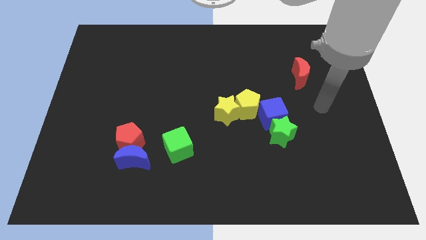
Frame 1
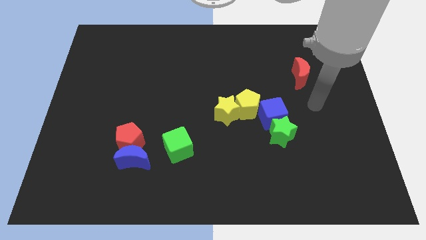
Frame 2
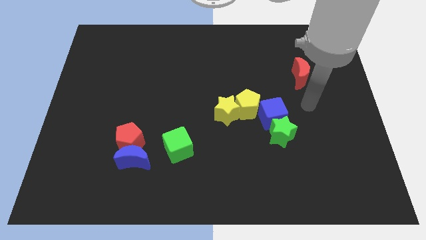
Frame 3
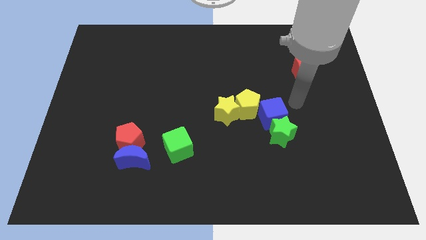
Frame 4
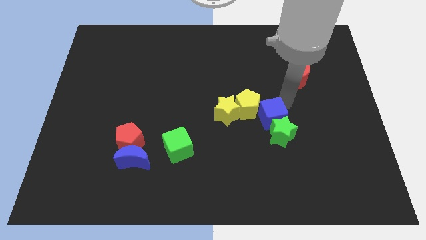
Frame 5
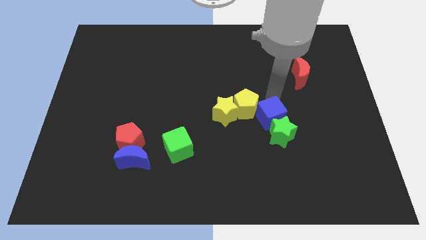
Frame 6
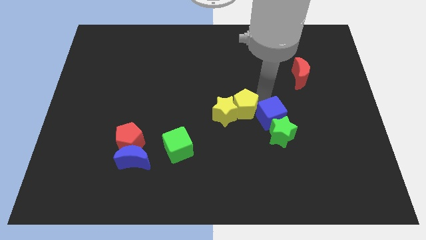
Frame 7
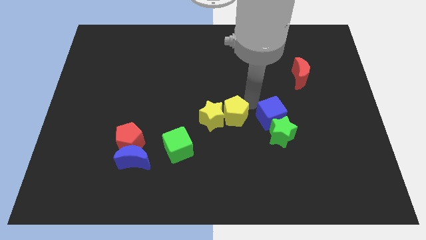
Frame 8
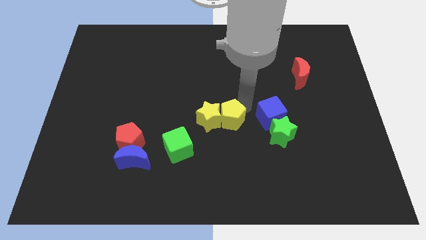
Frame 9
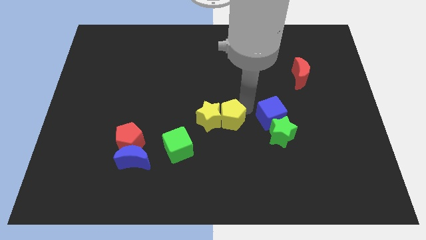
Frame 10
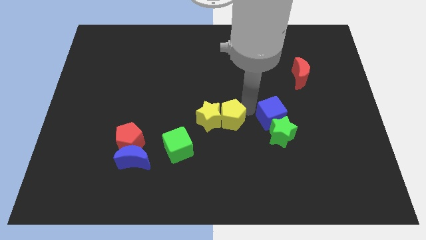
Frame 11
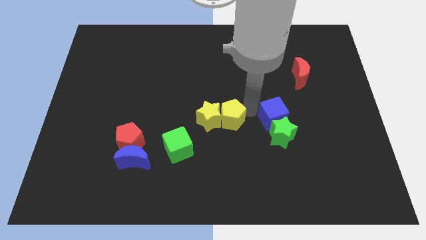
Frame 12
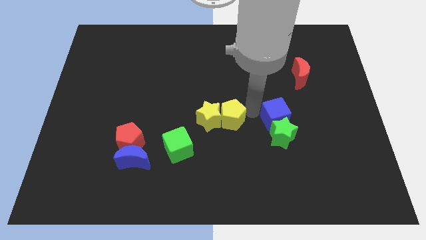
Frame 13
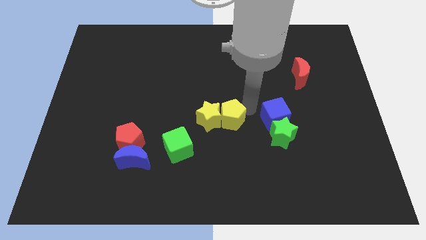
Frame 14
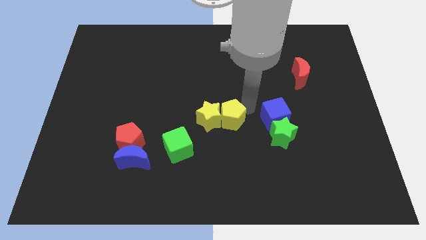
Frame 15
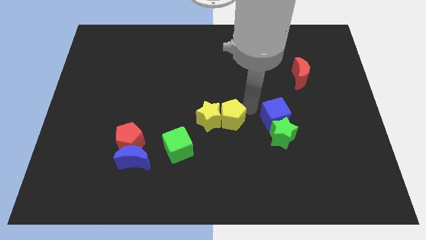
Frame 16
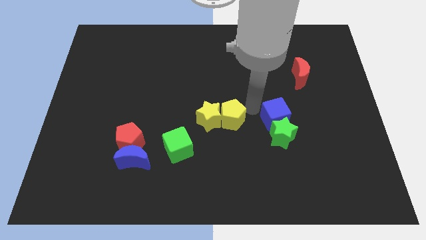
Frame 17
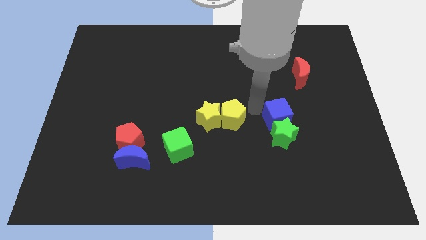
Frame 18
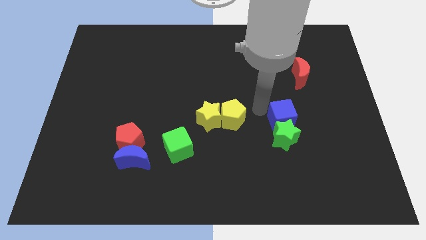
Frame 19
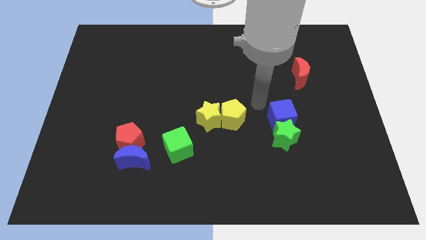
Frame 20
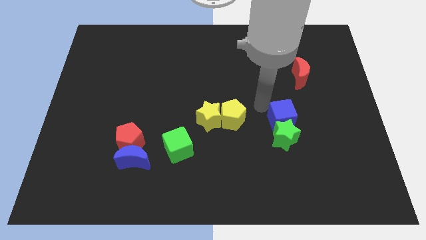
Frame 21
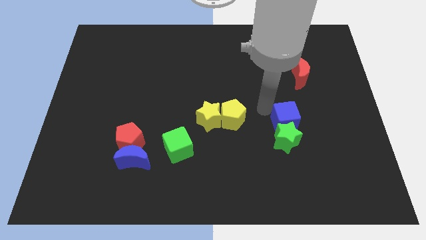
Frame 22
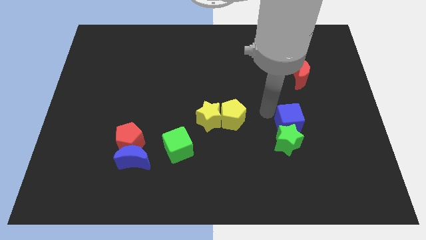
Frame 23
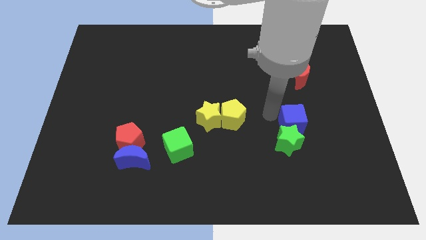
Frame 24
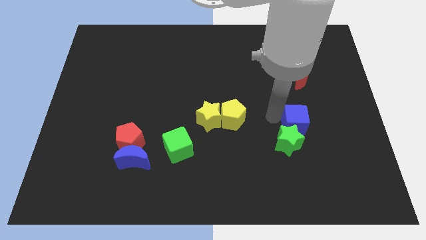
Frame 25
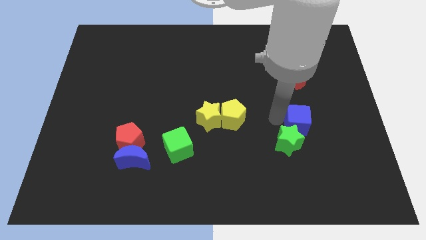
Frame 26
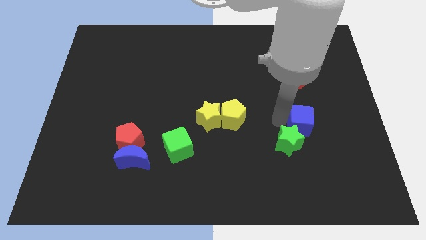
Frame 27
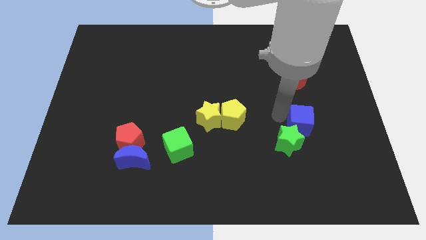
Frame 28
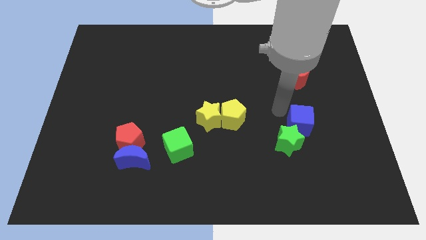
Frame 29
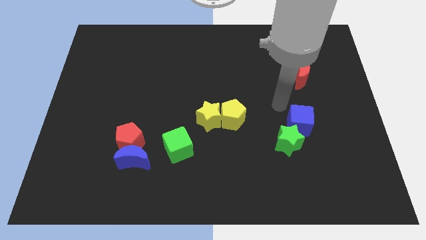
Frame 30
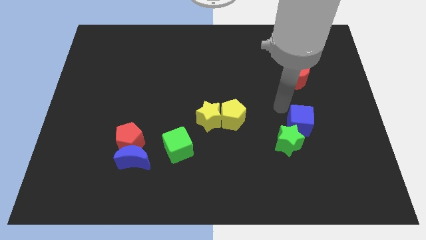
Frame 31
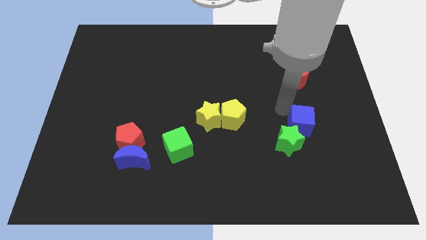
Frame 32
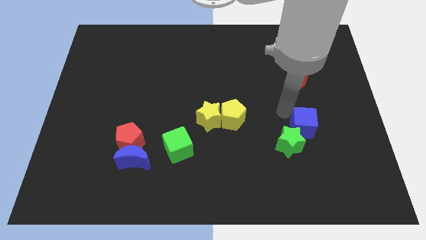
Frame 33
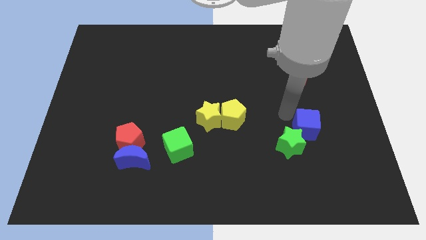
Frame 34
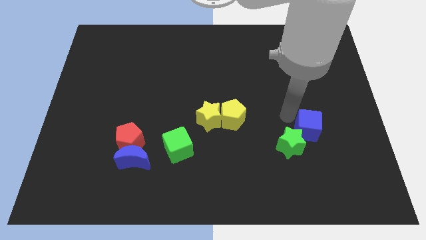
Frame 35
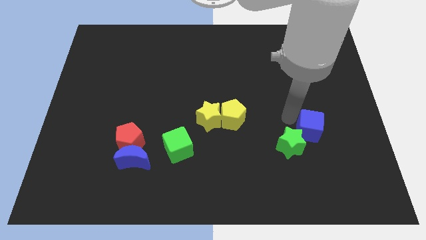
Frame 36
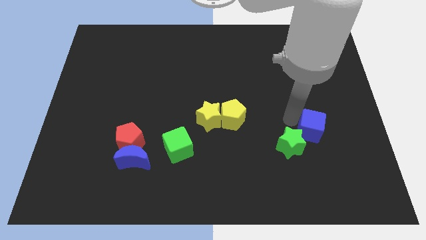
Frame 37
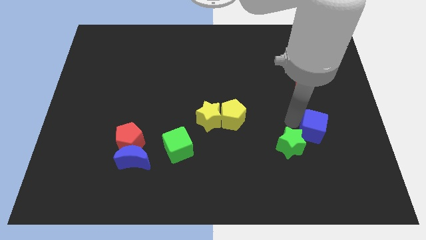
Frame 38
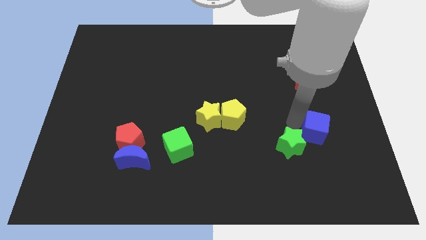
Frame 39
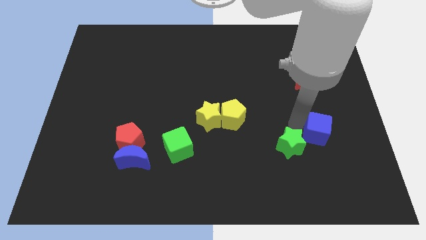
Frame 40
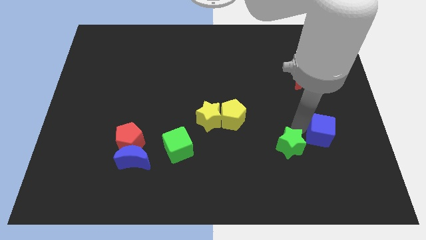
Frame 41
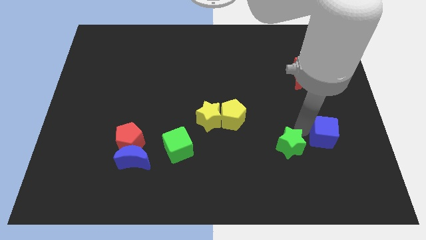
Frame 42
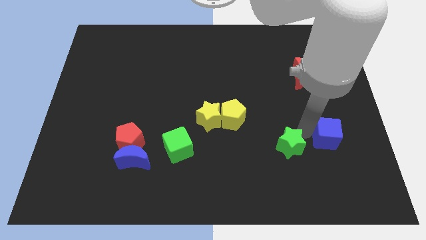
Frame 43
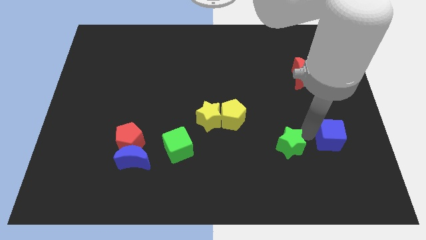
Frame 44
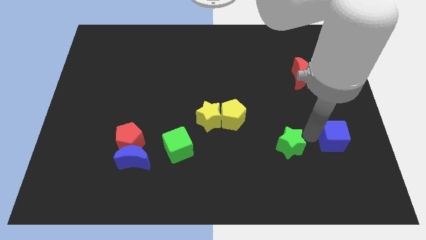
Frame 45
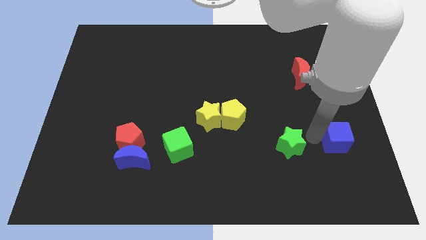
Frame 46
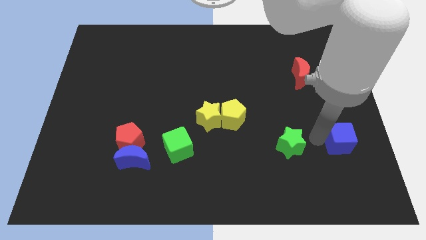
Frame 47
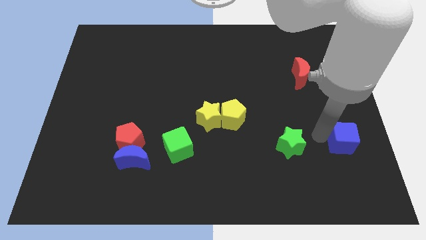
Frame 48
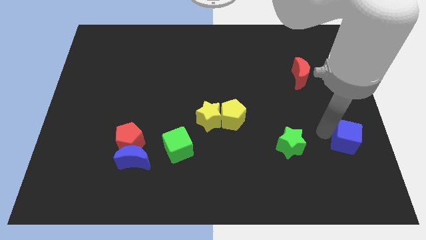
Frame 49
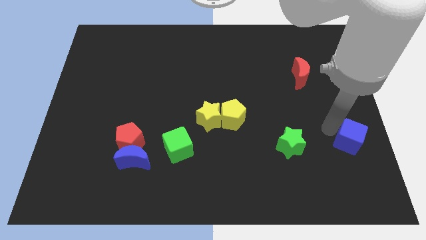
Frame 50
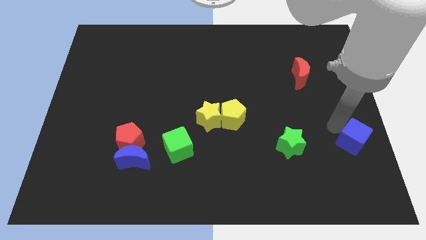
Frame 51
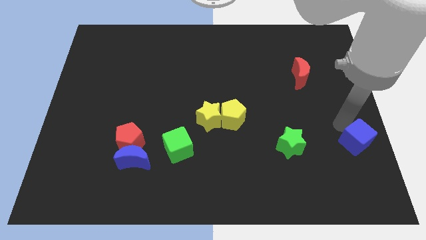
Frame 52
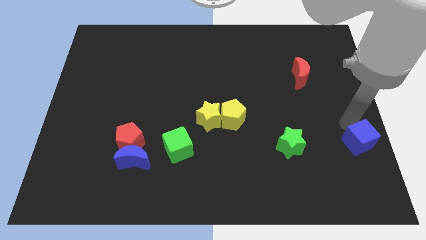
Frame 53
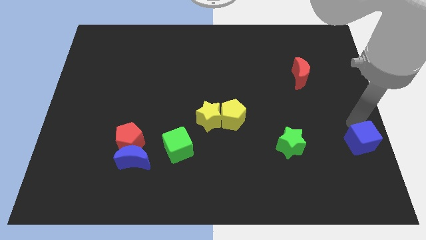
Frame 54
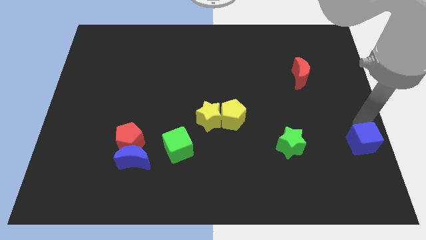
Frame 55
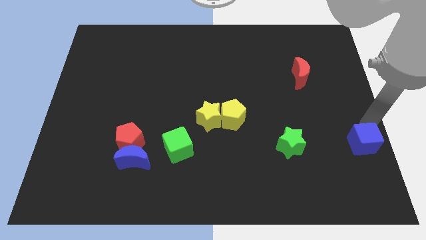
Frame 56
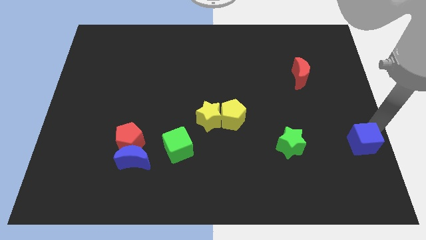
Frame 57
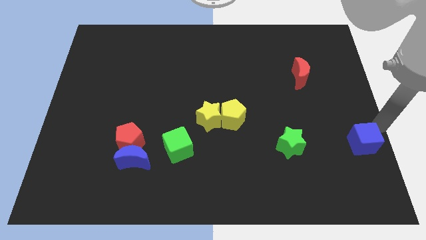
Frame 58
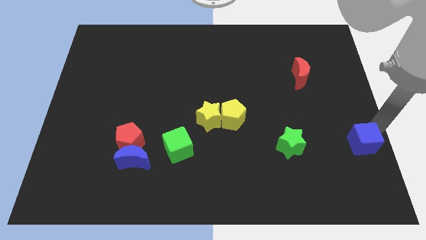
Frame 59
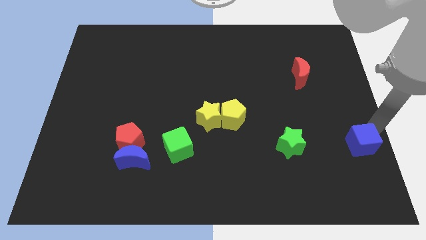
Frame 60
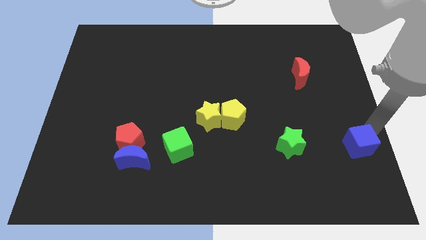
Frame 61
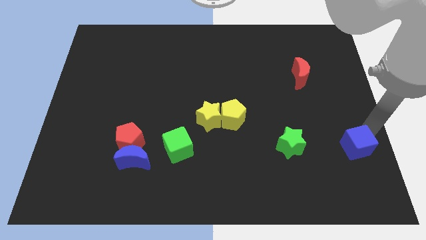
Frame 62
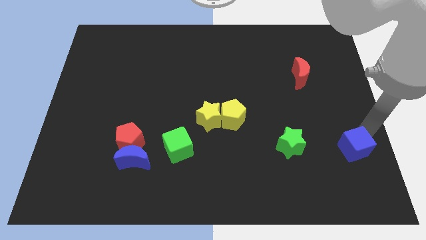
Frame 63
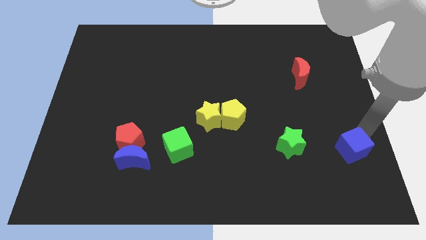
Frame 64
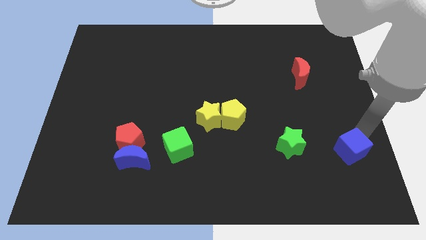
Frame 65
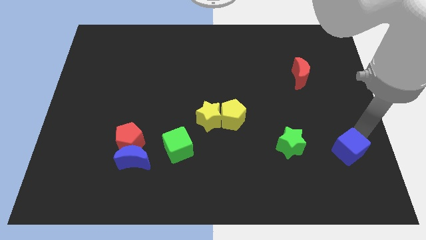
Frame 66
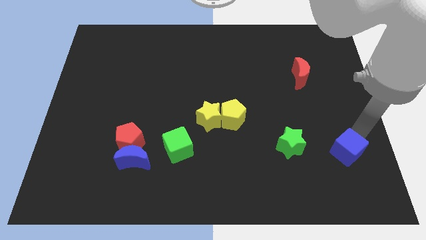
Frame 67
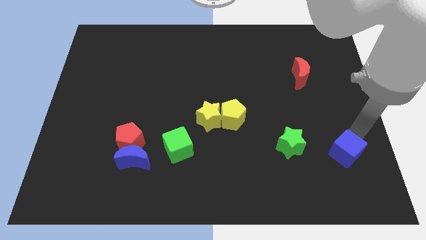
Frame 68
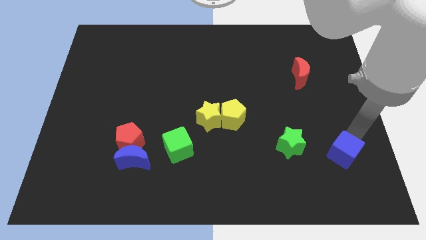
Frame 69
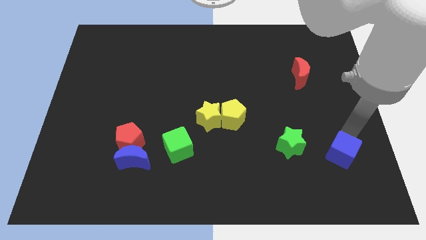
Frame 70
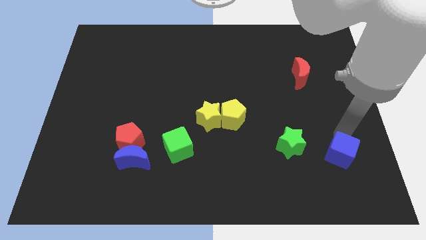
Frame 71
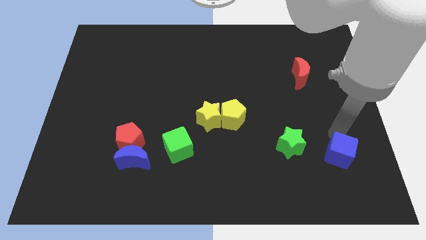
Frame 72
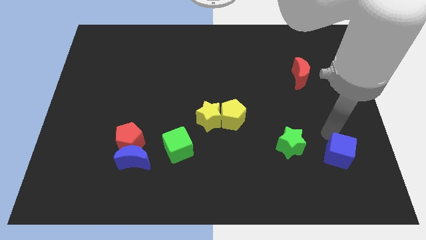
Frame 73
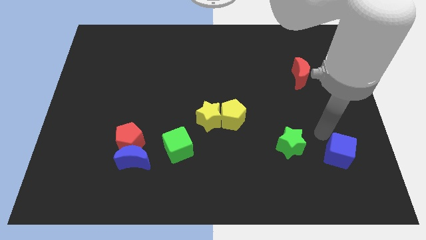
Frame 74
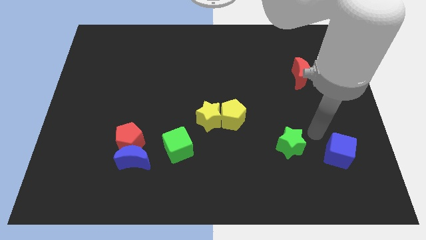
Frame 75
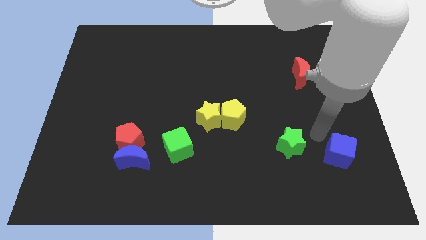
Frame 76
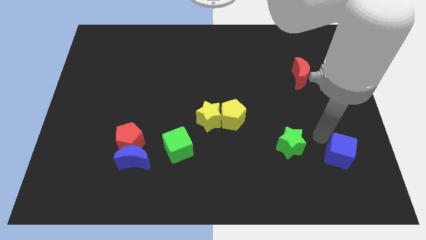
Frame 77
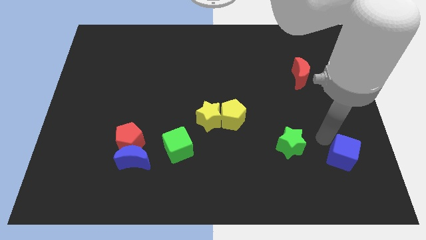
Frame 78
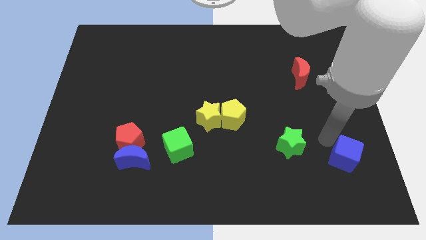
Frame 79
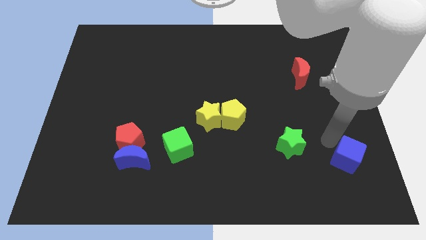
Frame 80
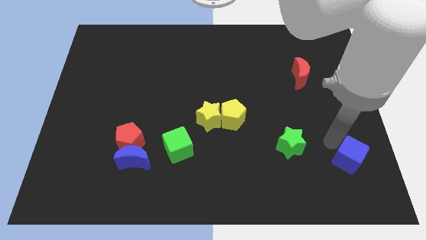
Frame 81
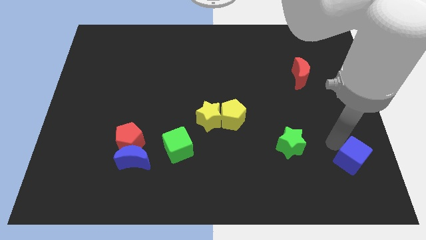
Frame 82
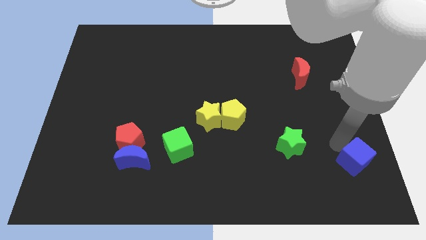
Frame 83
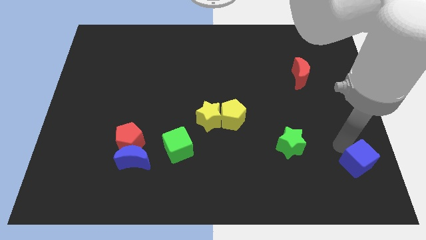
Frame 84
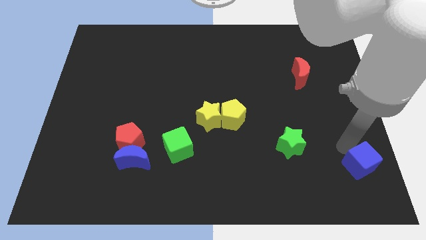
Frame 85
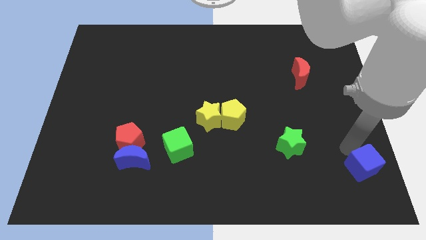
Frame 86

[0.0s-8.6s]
slide the blue cube to the bottom right of the board
